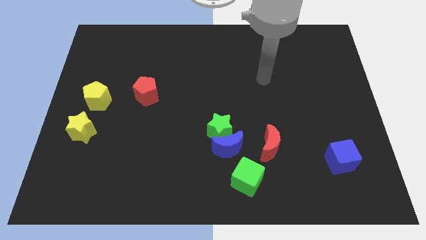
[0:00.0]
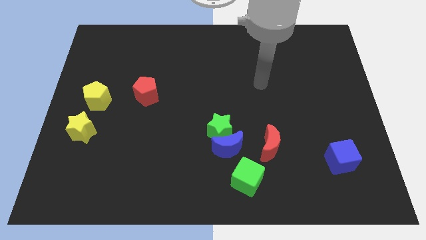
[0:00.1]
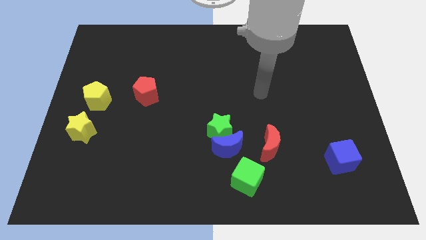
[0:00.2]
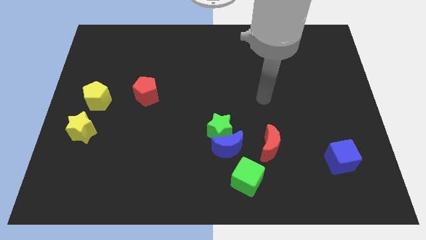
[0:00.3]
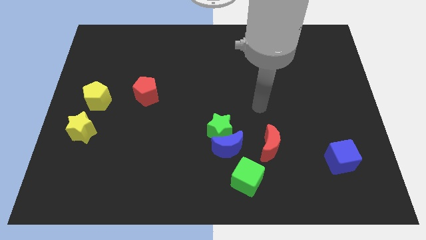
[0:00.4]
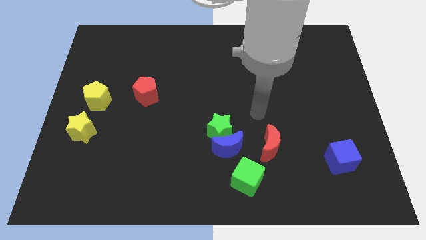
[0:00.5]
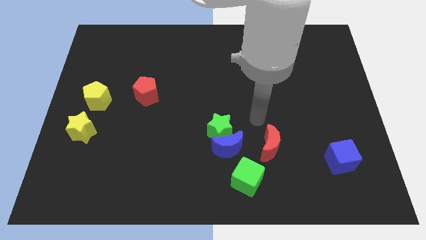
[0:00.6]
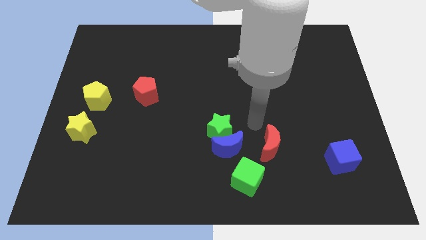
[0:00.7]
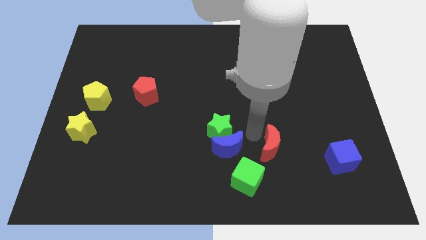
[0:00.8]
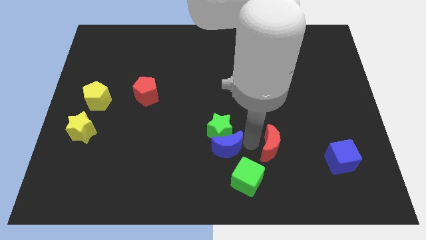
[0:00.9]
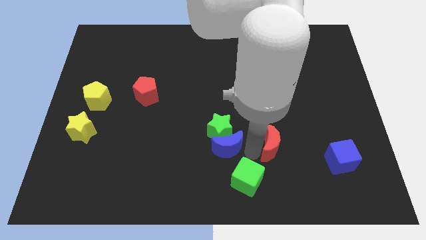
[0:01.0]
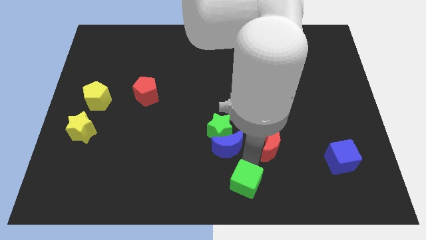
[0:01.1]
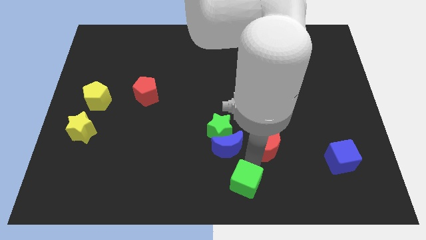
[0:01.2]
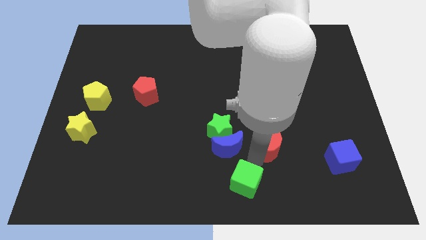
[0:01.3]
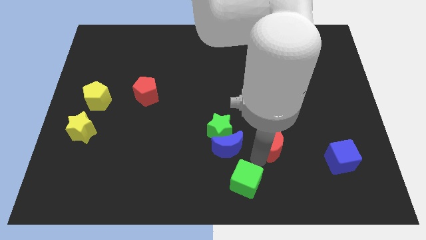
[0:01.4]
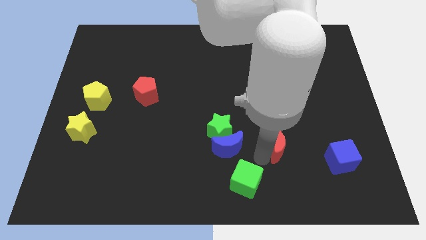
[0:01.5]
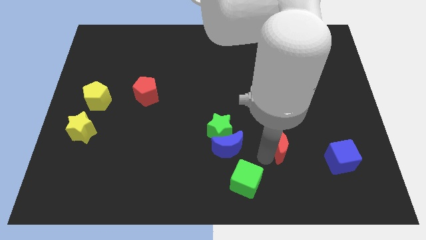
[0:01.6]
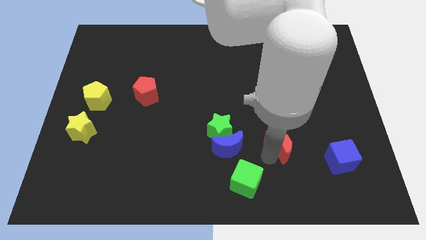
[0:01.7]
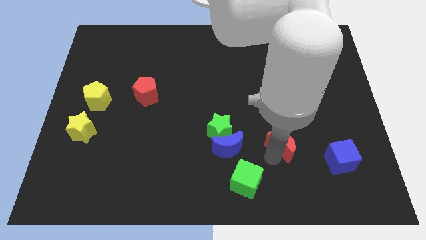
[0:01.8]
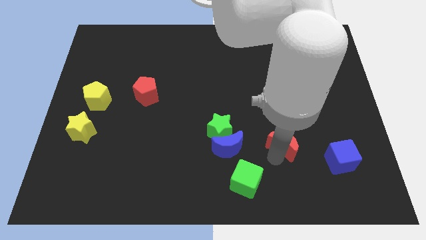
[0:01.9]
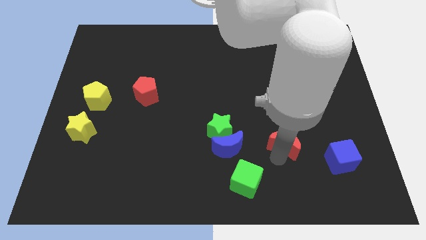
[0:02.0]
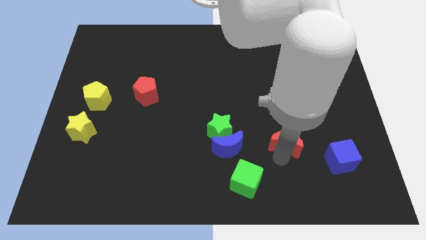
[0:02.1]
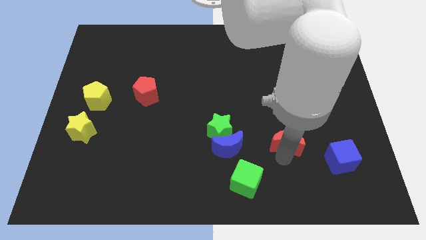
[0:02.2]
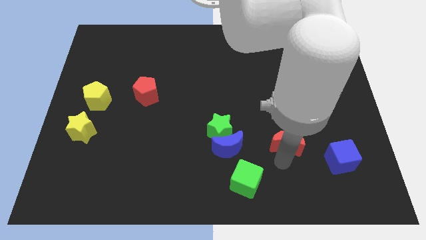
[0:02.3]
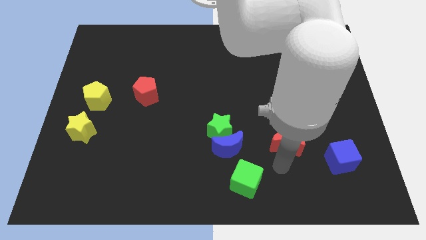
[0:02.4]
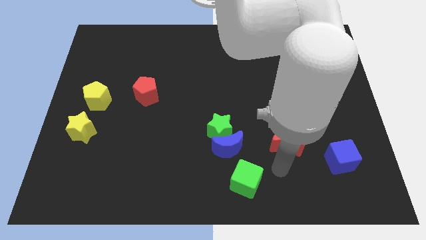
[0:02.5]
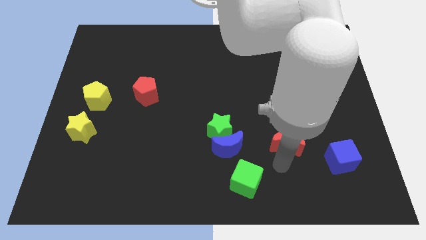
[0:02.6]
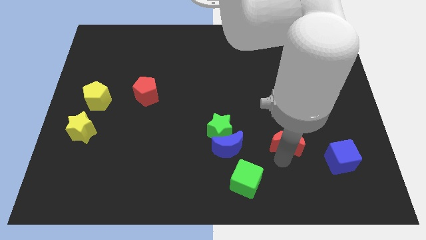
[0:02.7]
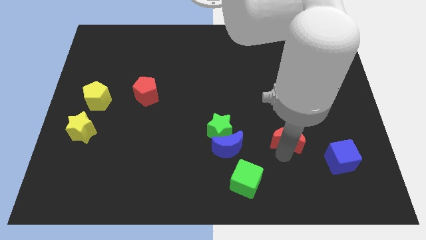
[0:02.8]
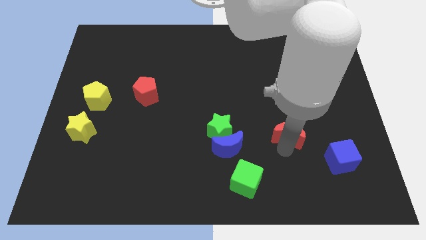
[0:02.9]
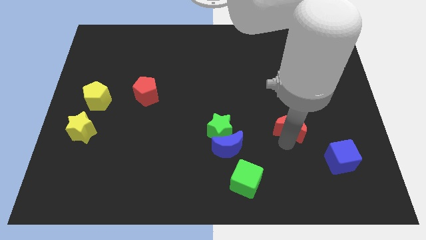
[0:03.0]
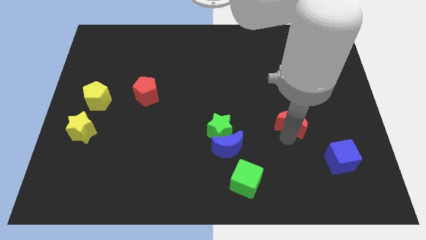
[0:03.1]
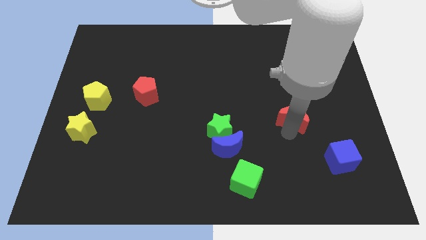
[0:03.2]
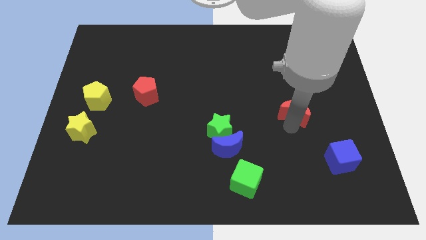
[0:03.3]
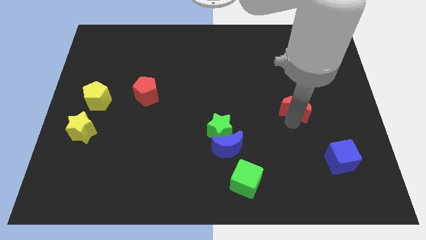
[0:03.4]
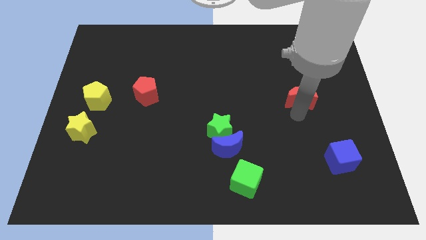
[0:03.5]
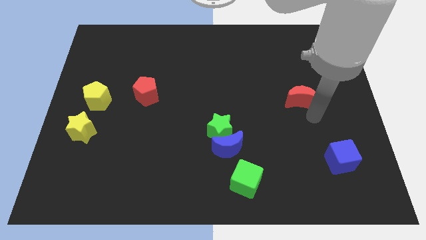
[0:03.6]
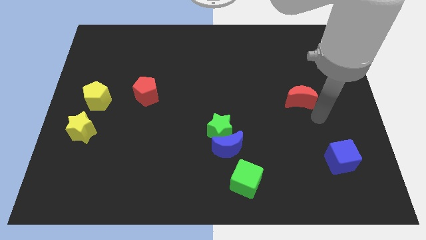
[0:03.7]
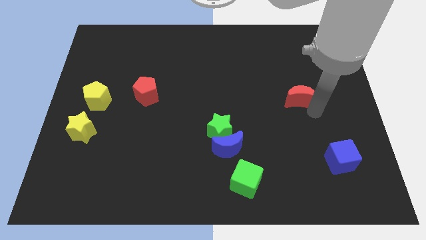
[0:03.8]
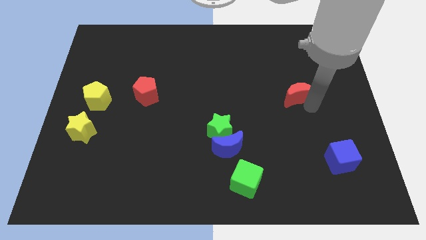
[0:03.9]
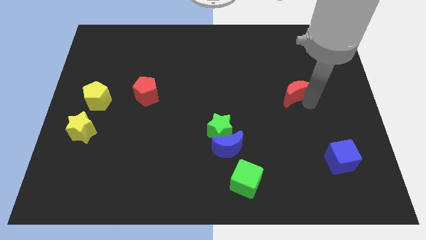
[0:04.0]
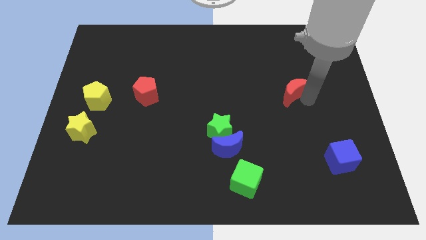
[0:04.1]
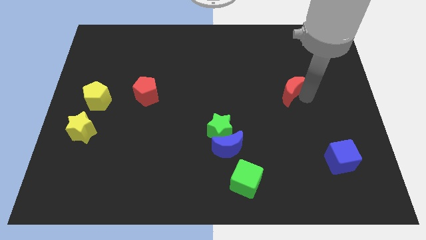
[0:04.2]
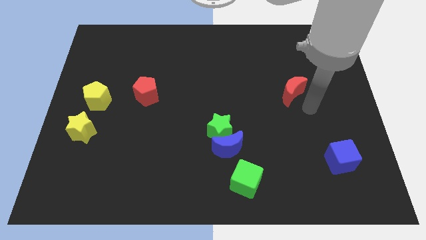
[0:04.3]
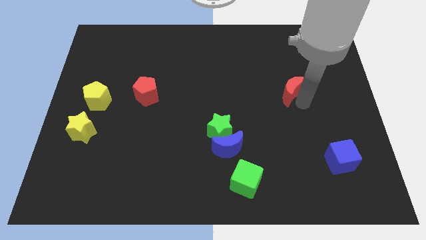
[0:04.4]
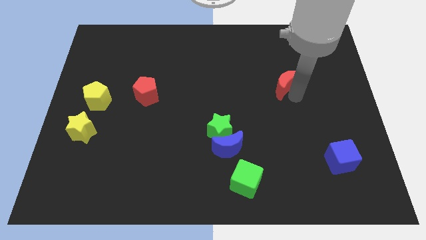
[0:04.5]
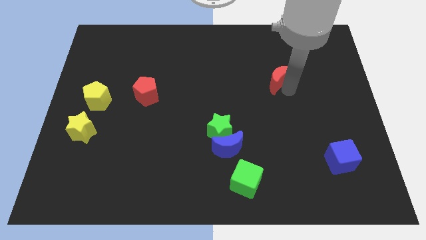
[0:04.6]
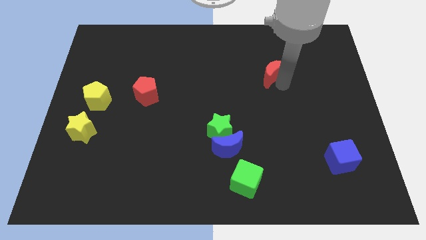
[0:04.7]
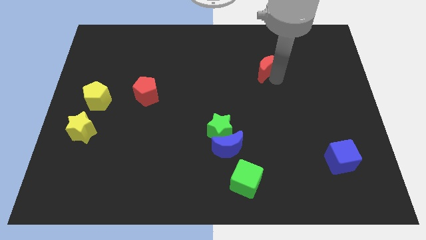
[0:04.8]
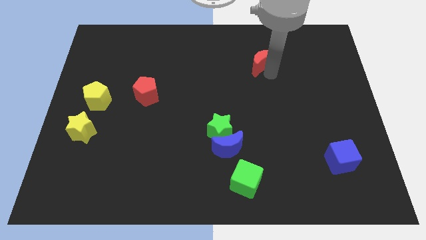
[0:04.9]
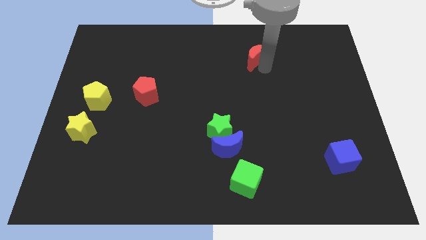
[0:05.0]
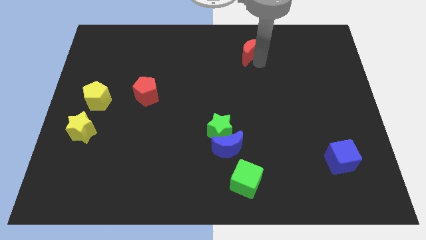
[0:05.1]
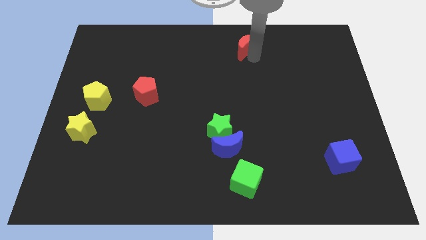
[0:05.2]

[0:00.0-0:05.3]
slide the red moon to the top side

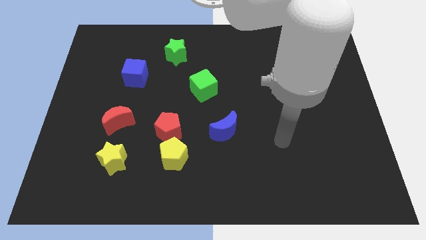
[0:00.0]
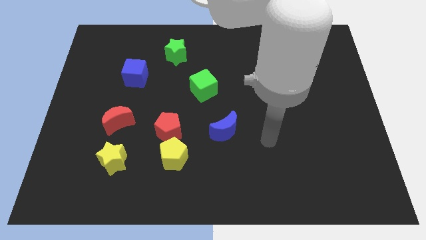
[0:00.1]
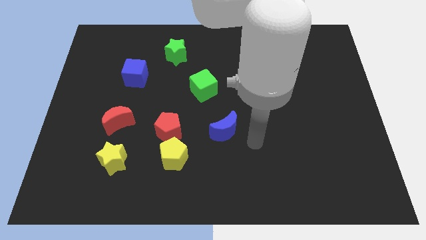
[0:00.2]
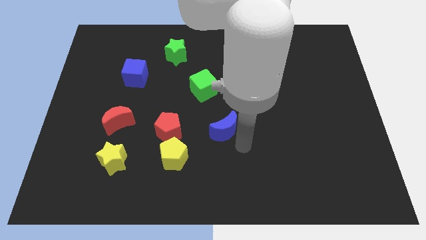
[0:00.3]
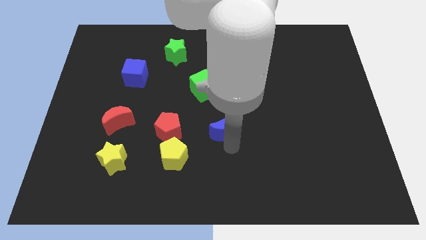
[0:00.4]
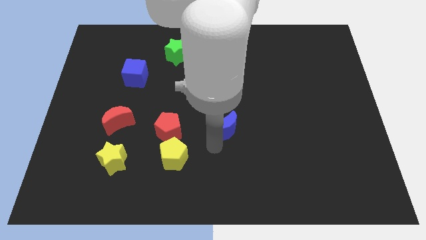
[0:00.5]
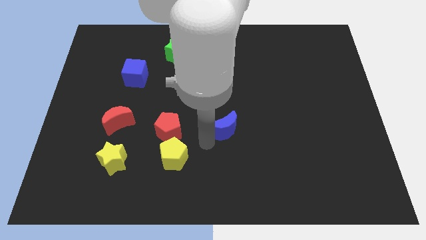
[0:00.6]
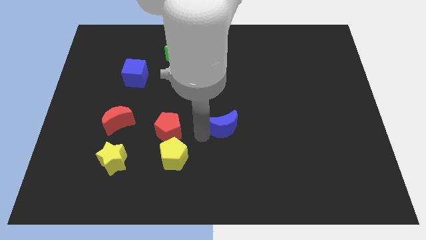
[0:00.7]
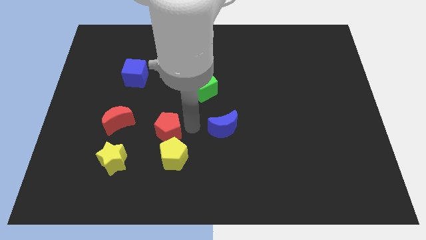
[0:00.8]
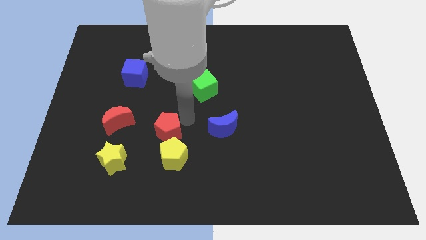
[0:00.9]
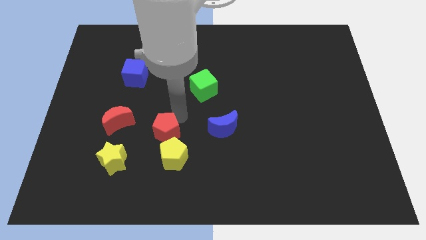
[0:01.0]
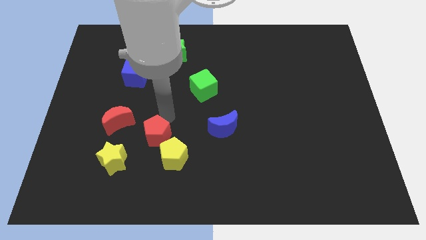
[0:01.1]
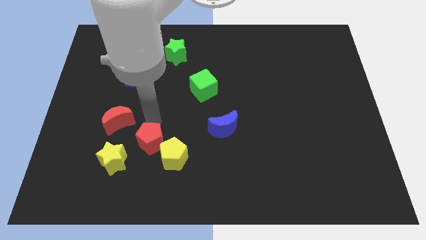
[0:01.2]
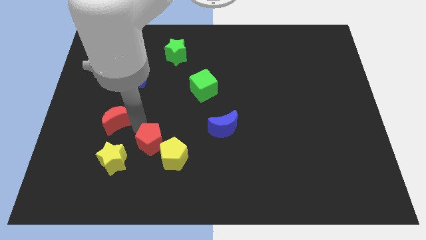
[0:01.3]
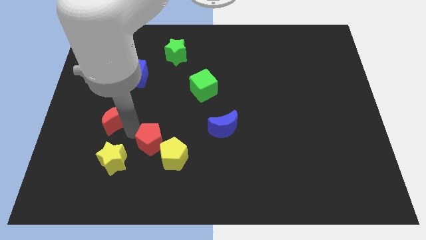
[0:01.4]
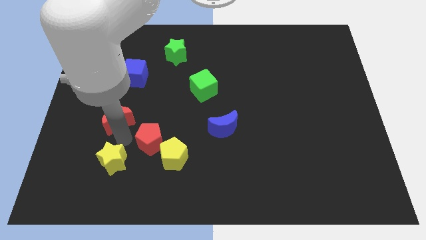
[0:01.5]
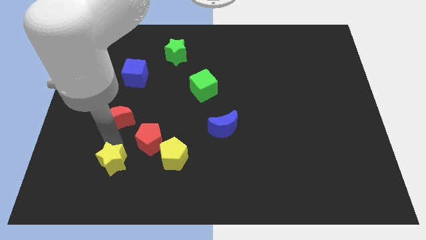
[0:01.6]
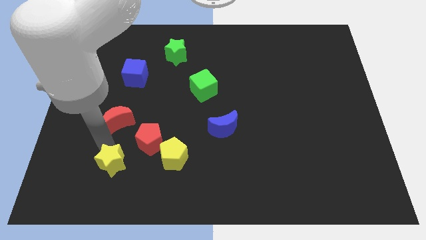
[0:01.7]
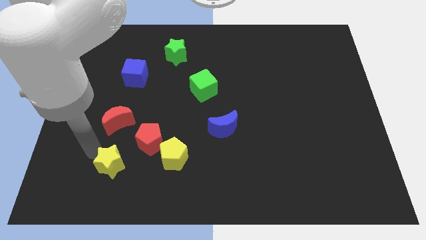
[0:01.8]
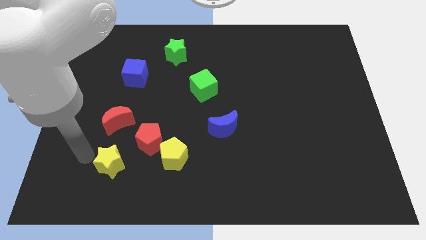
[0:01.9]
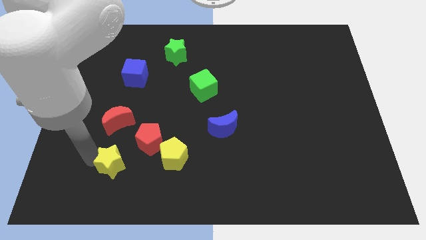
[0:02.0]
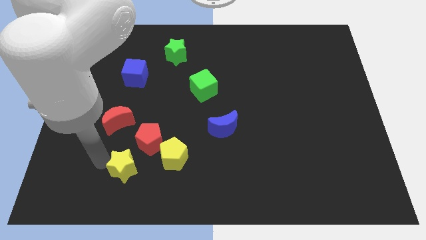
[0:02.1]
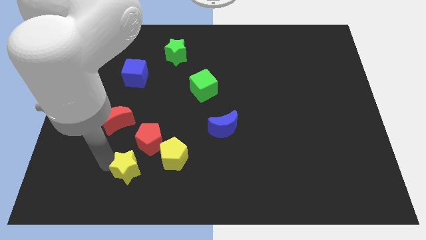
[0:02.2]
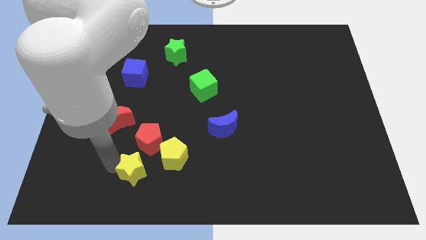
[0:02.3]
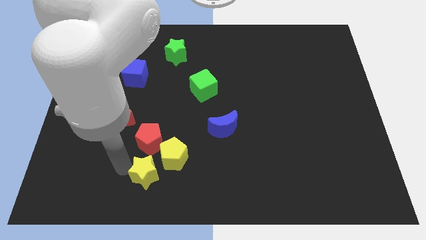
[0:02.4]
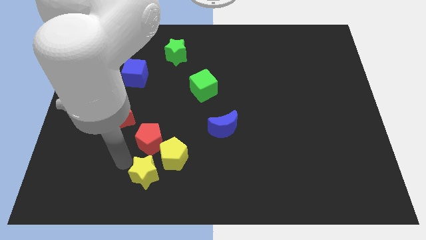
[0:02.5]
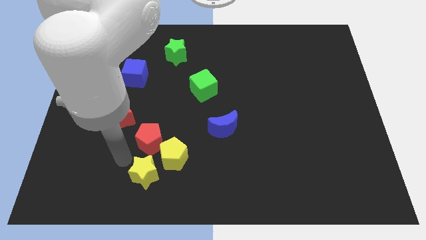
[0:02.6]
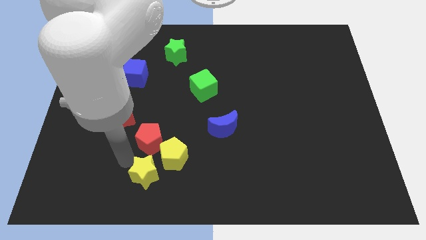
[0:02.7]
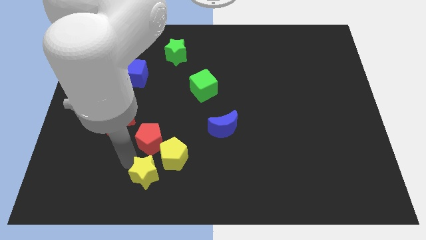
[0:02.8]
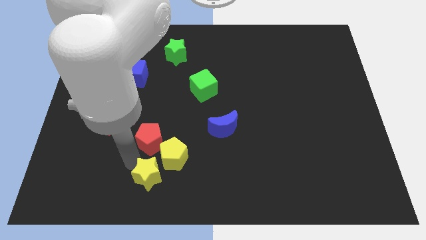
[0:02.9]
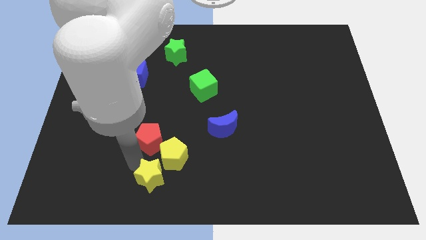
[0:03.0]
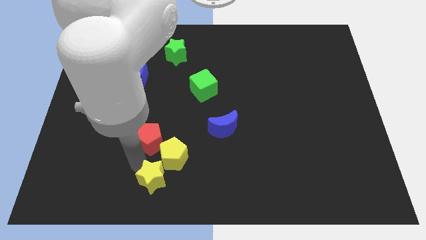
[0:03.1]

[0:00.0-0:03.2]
push the yellow star to the bottom
